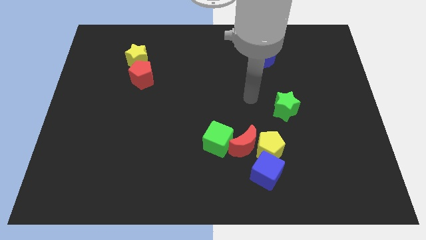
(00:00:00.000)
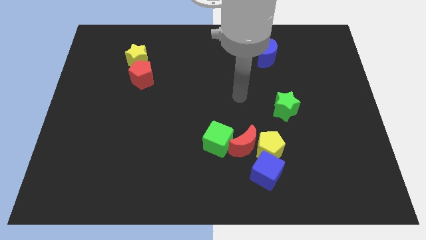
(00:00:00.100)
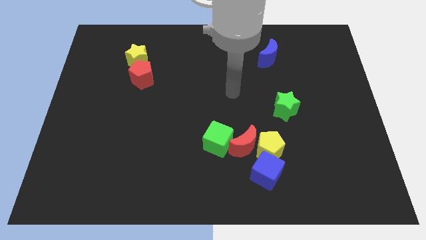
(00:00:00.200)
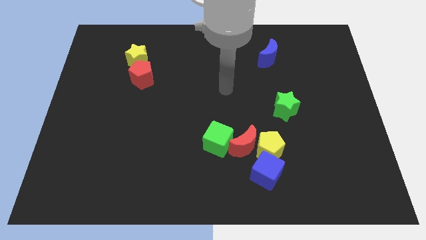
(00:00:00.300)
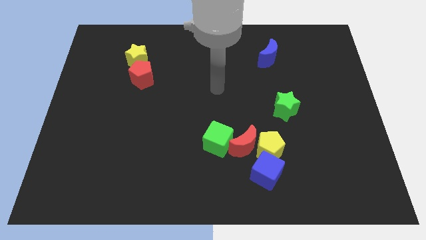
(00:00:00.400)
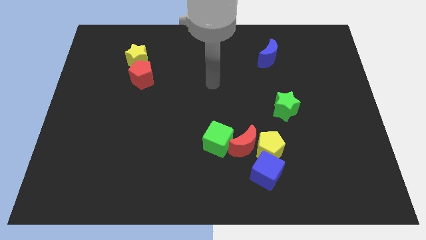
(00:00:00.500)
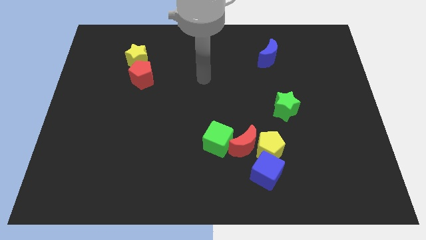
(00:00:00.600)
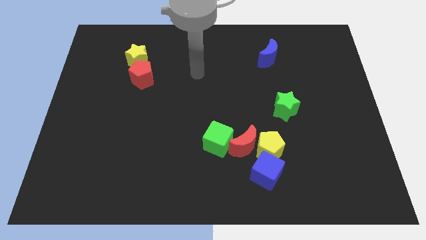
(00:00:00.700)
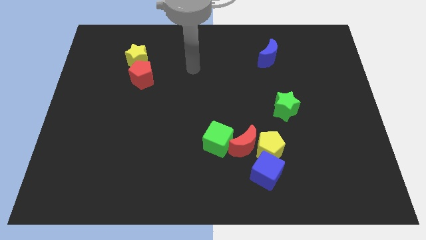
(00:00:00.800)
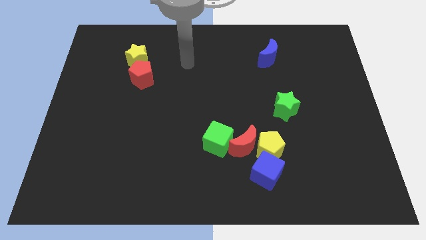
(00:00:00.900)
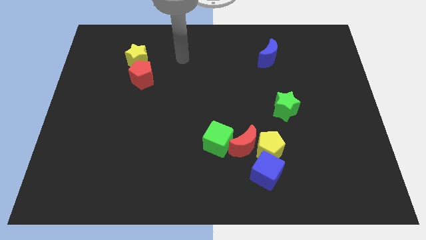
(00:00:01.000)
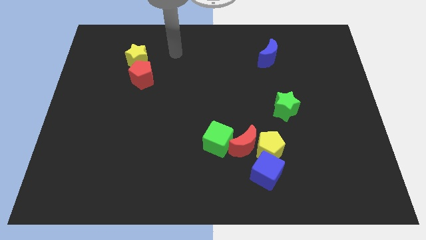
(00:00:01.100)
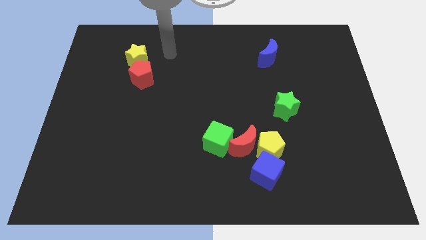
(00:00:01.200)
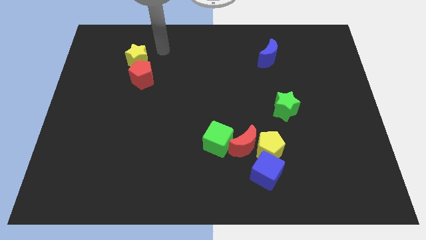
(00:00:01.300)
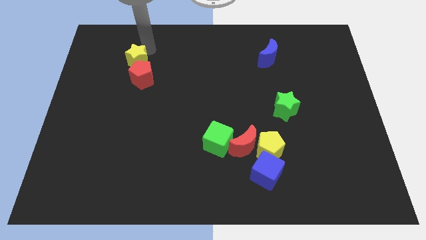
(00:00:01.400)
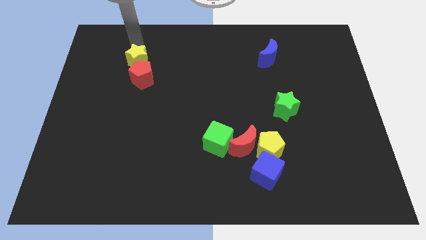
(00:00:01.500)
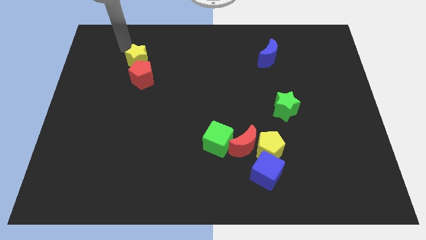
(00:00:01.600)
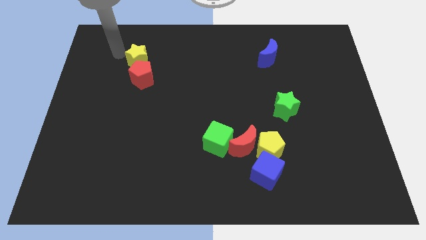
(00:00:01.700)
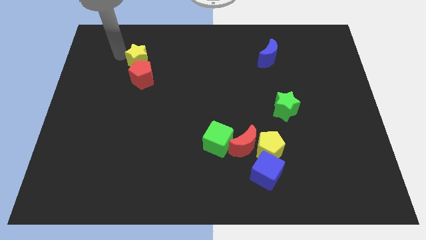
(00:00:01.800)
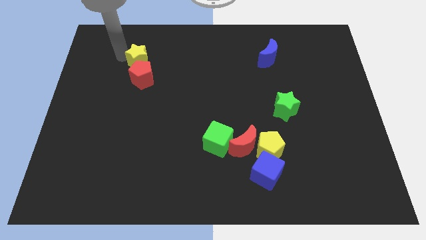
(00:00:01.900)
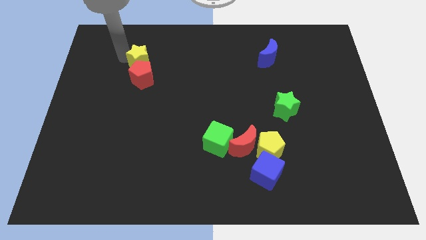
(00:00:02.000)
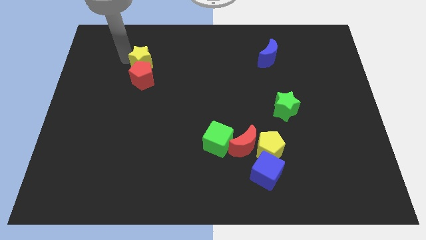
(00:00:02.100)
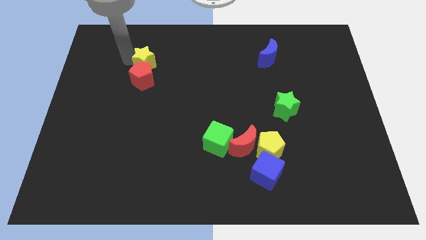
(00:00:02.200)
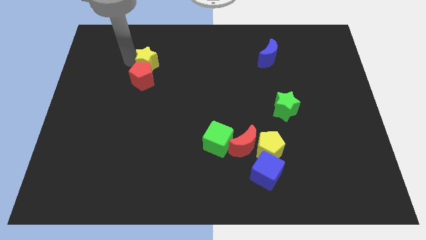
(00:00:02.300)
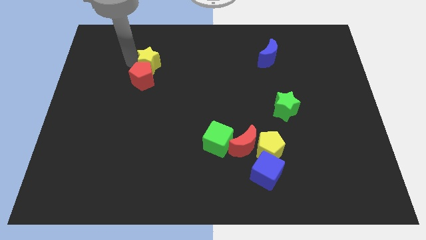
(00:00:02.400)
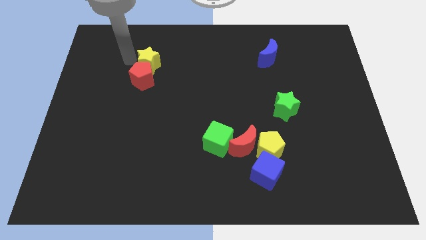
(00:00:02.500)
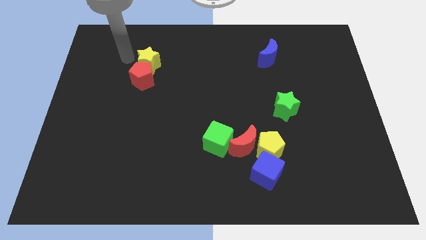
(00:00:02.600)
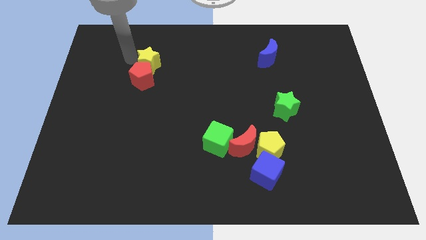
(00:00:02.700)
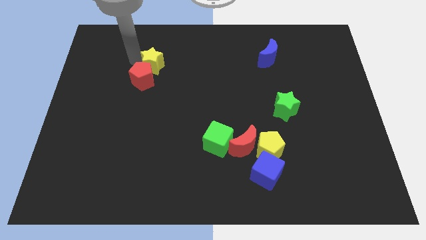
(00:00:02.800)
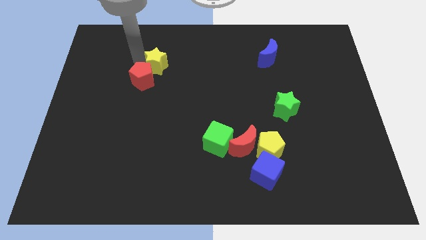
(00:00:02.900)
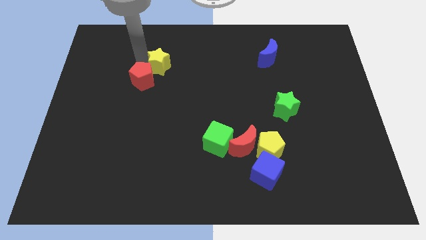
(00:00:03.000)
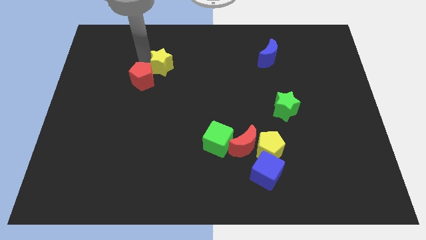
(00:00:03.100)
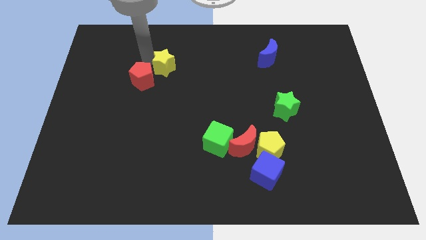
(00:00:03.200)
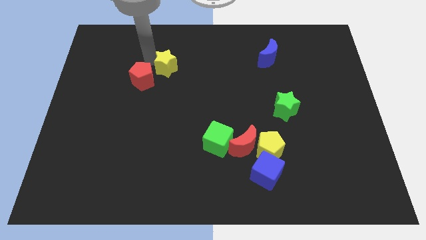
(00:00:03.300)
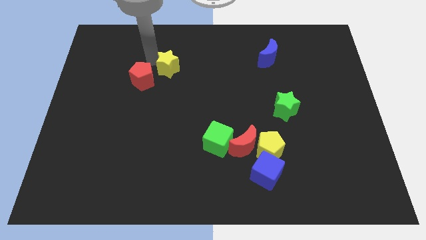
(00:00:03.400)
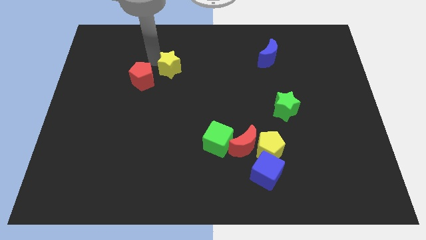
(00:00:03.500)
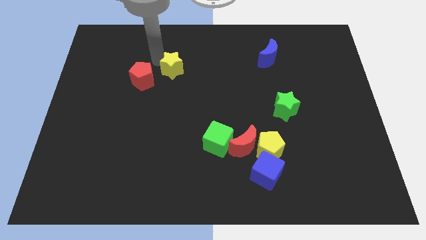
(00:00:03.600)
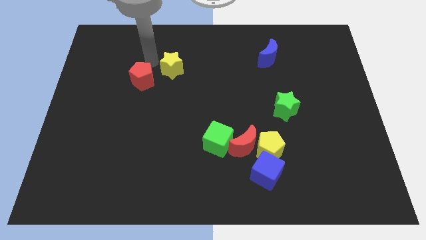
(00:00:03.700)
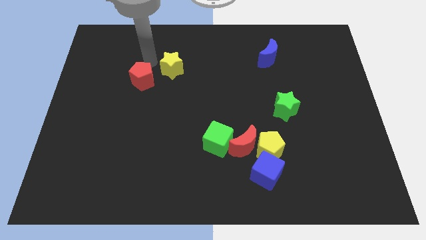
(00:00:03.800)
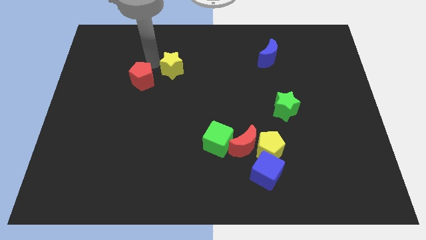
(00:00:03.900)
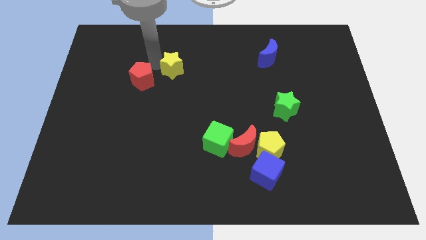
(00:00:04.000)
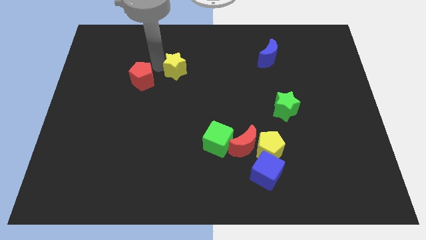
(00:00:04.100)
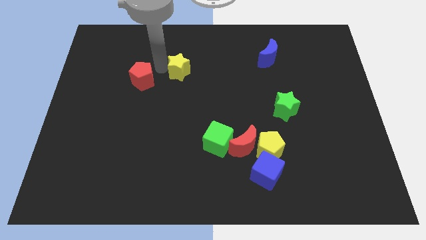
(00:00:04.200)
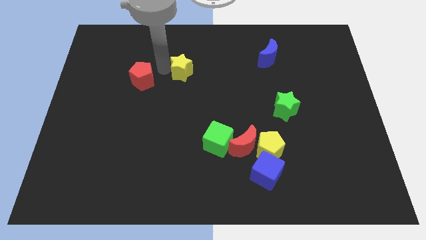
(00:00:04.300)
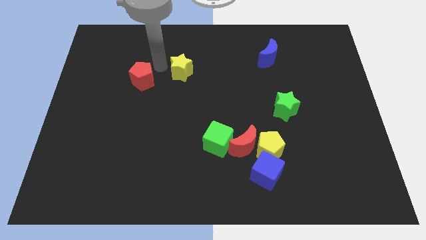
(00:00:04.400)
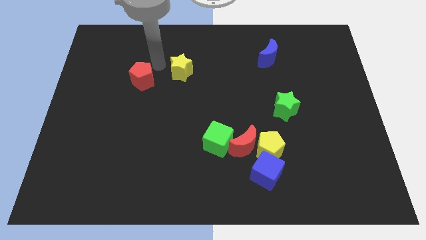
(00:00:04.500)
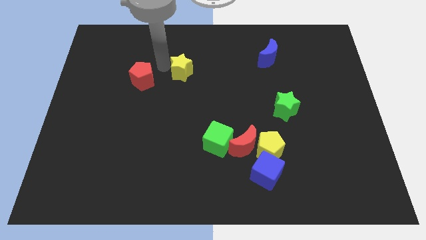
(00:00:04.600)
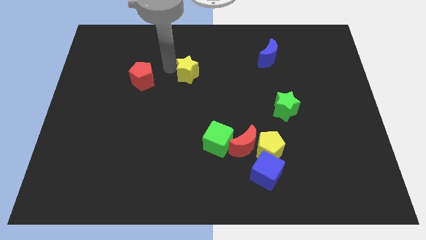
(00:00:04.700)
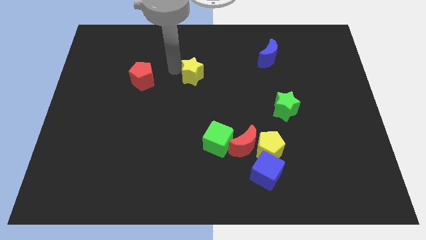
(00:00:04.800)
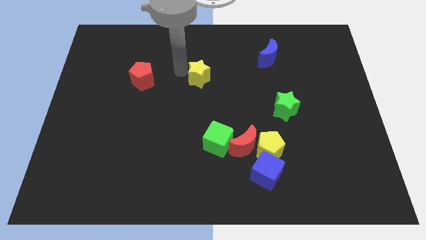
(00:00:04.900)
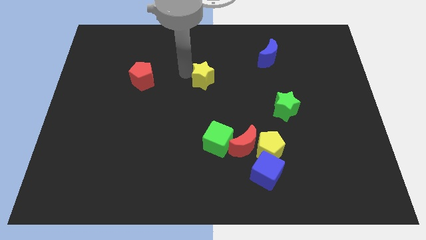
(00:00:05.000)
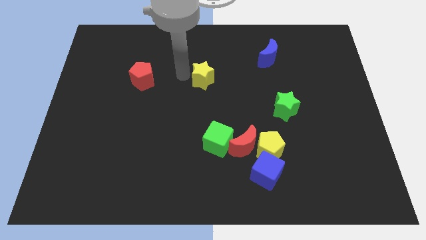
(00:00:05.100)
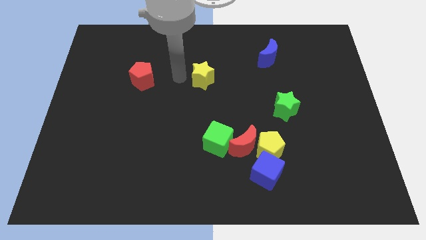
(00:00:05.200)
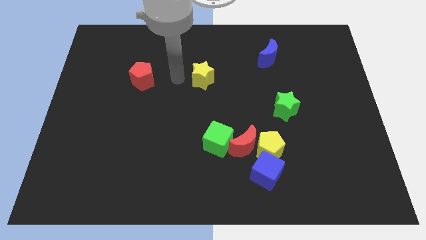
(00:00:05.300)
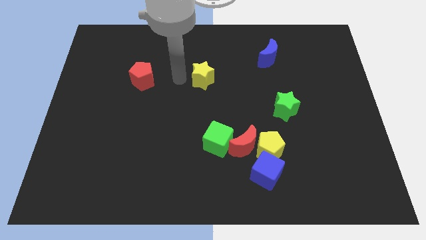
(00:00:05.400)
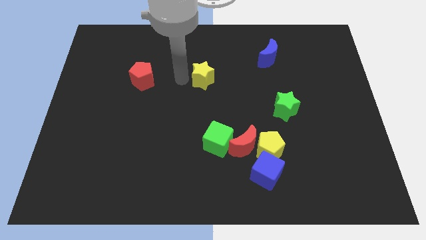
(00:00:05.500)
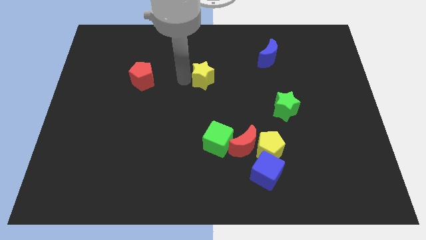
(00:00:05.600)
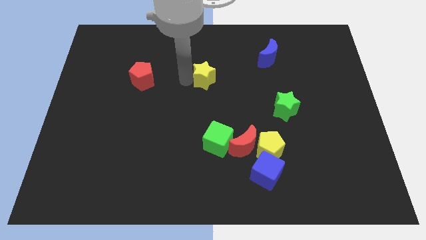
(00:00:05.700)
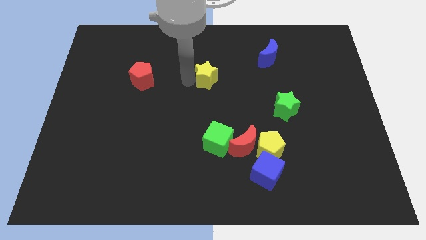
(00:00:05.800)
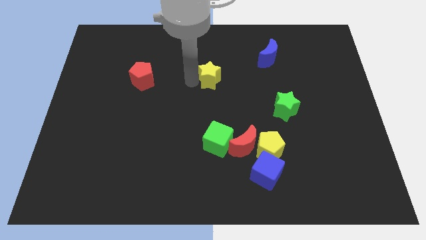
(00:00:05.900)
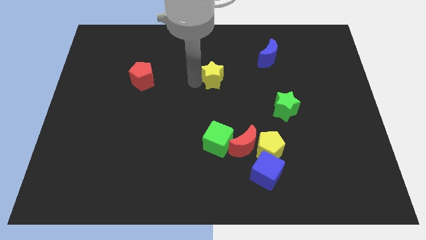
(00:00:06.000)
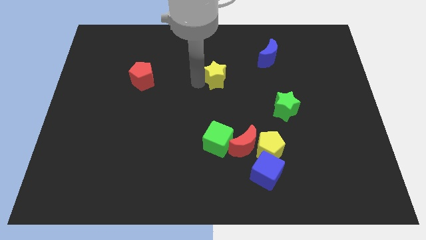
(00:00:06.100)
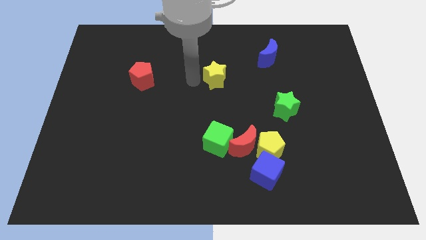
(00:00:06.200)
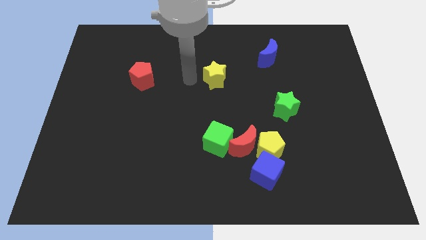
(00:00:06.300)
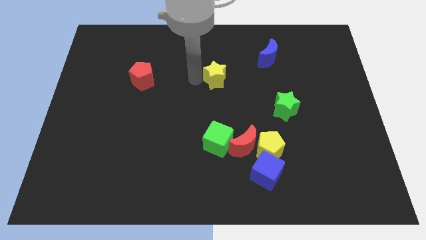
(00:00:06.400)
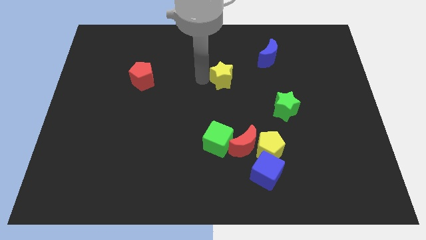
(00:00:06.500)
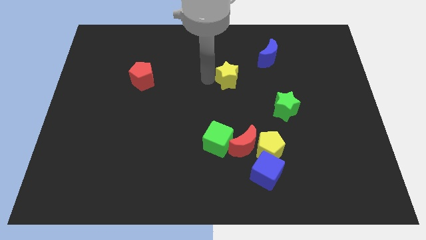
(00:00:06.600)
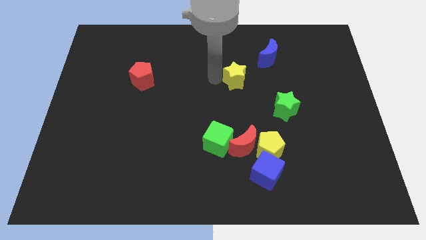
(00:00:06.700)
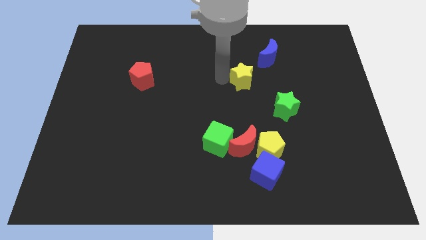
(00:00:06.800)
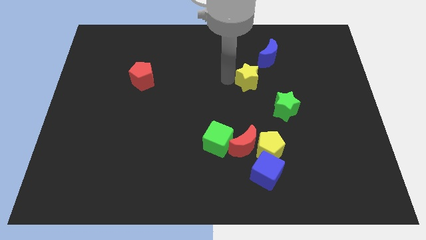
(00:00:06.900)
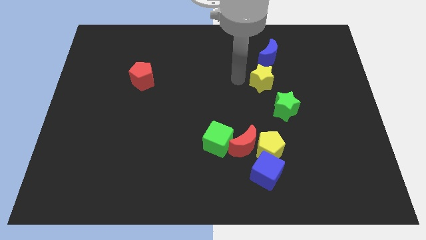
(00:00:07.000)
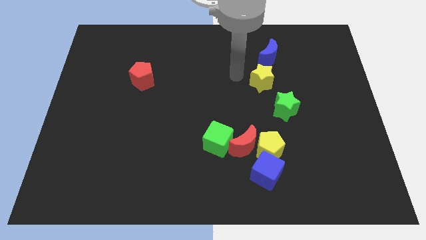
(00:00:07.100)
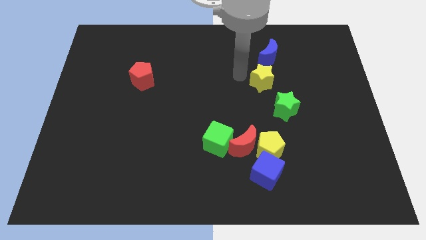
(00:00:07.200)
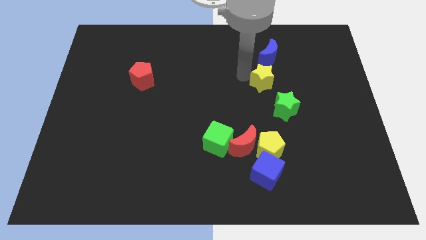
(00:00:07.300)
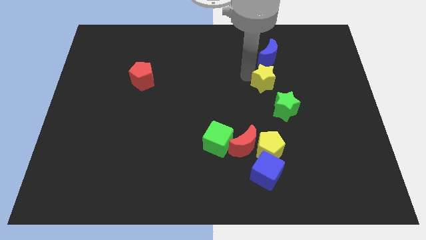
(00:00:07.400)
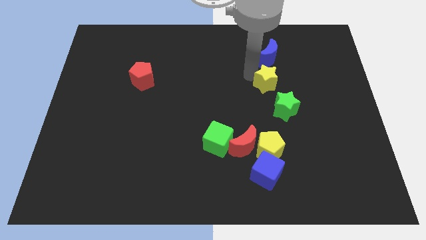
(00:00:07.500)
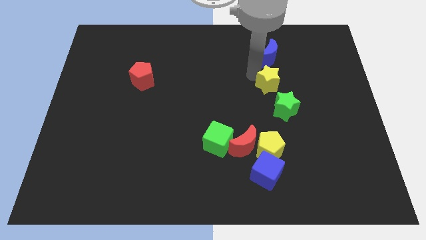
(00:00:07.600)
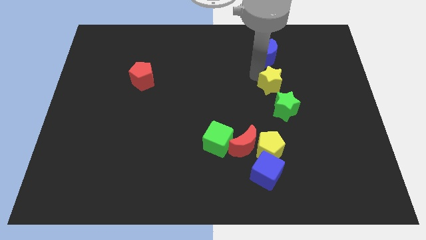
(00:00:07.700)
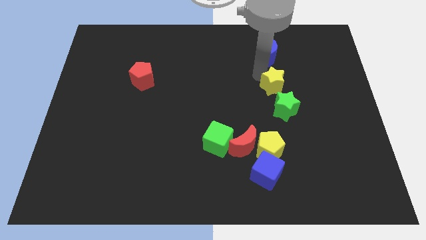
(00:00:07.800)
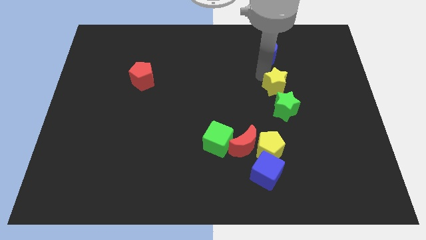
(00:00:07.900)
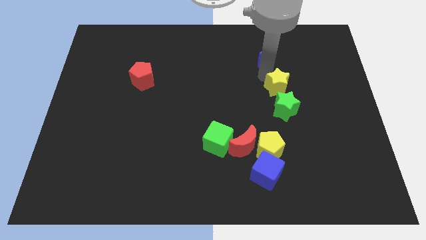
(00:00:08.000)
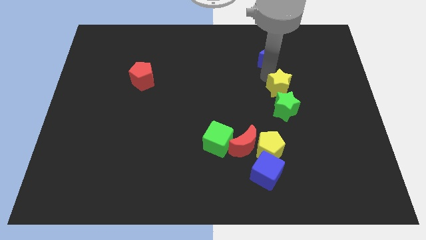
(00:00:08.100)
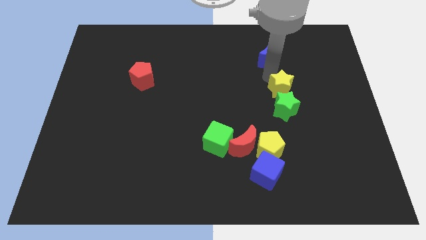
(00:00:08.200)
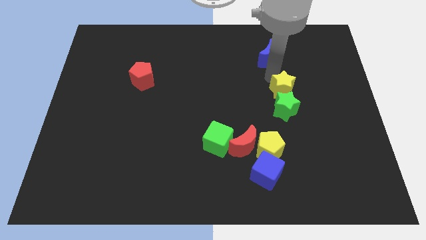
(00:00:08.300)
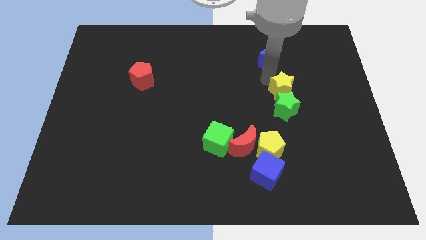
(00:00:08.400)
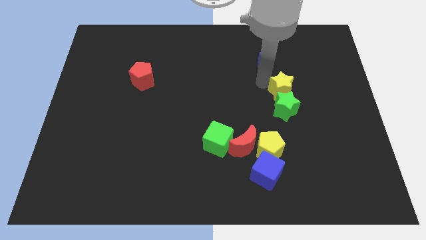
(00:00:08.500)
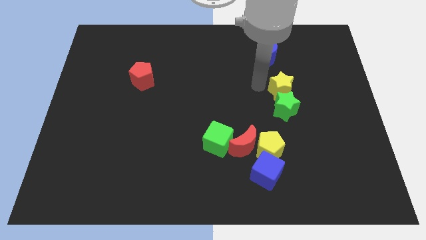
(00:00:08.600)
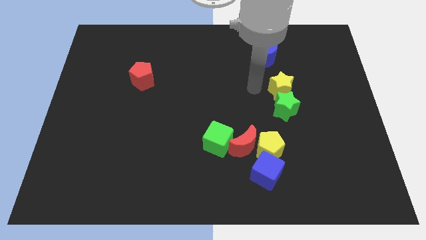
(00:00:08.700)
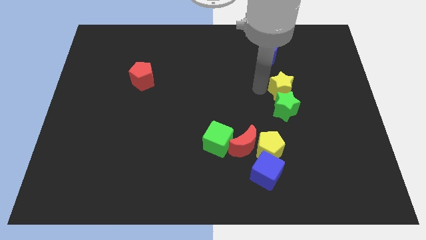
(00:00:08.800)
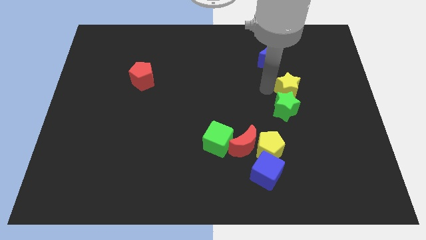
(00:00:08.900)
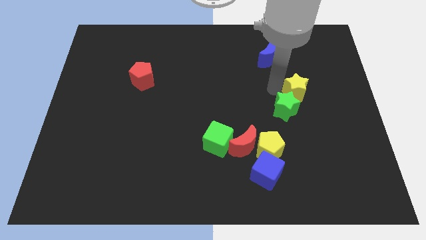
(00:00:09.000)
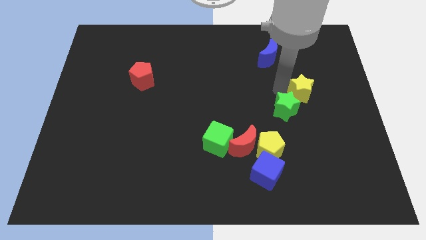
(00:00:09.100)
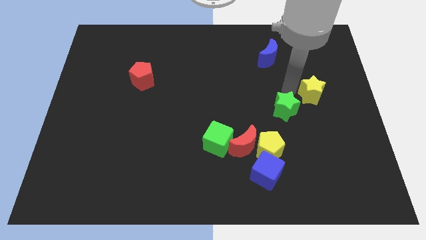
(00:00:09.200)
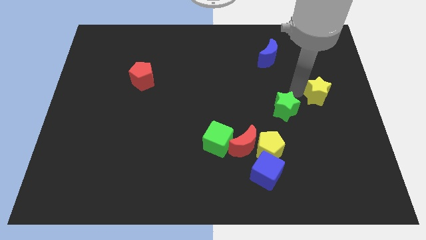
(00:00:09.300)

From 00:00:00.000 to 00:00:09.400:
push the yellow star to the center right
